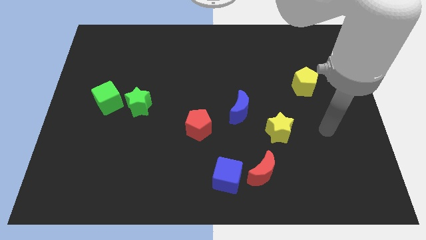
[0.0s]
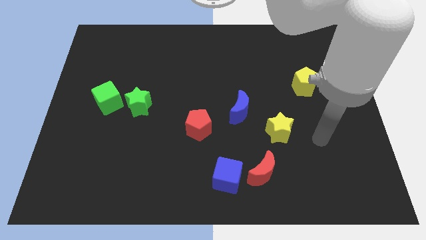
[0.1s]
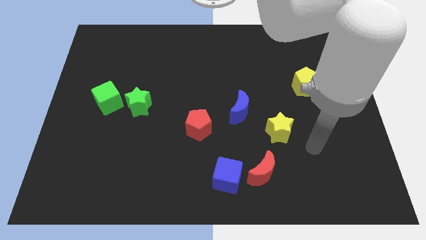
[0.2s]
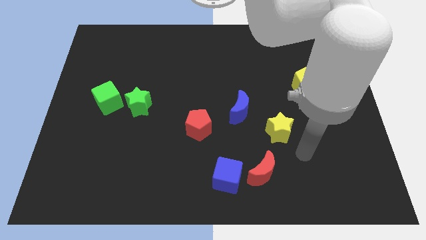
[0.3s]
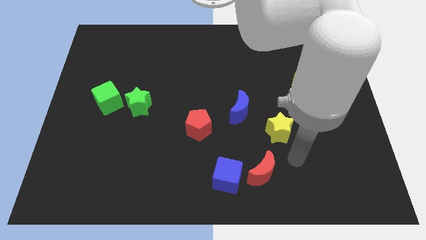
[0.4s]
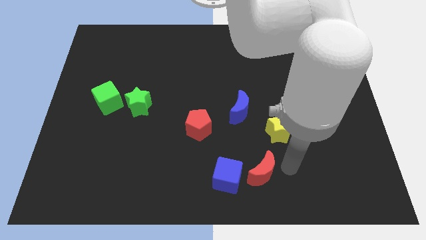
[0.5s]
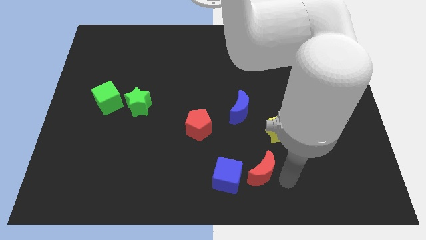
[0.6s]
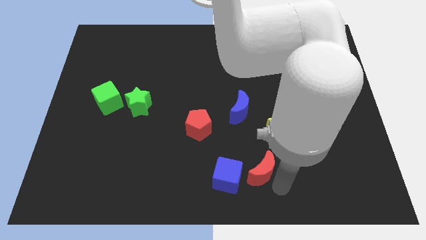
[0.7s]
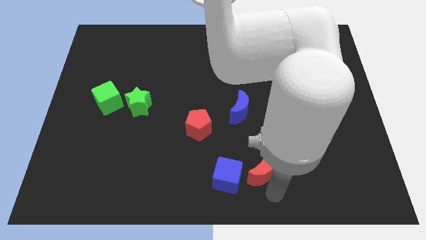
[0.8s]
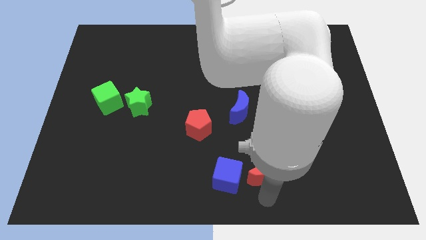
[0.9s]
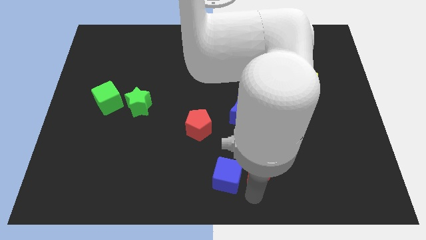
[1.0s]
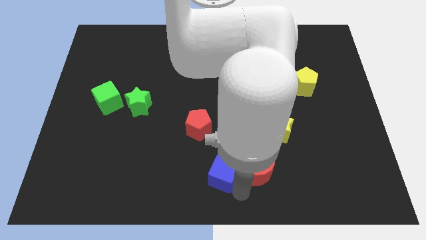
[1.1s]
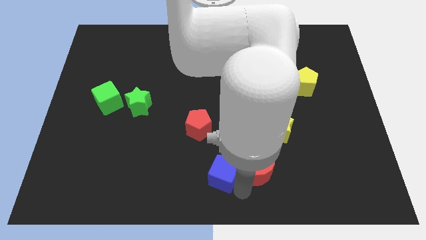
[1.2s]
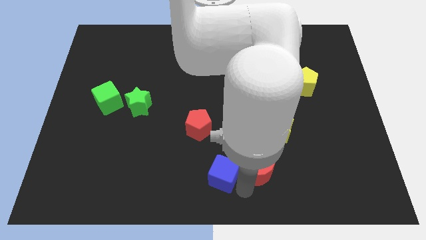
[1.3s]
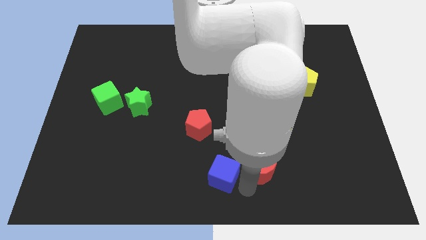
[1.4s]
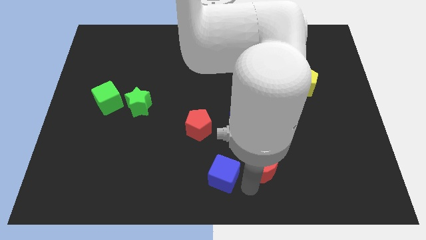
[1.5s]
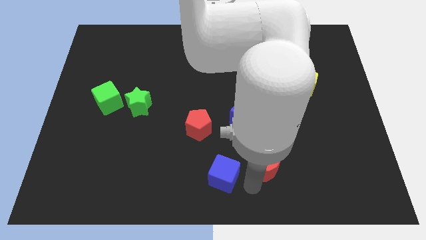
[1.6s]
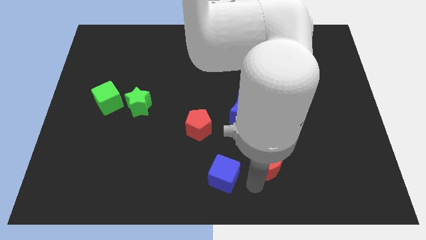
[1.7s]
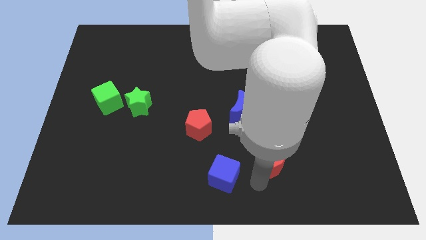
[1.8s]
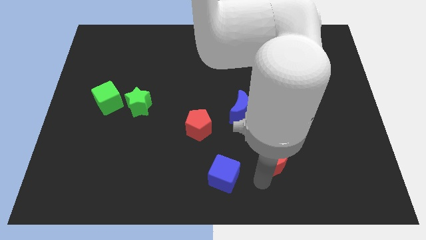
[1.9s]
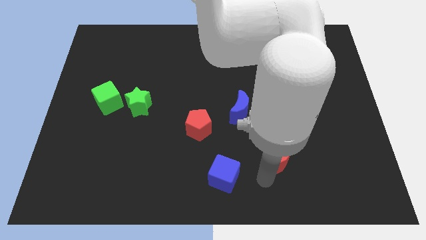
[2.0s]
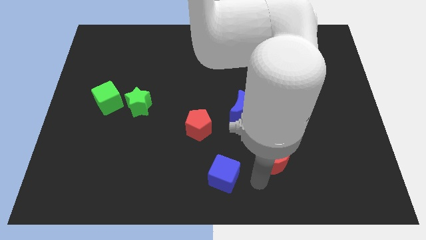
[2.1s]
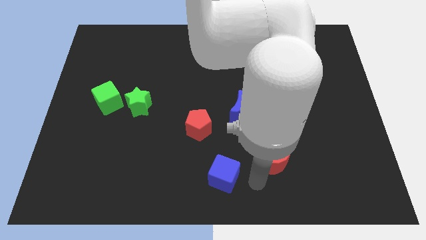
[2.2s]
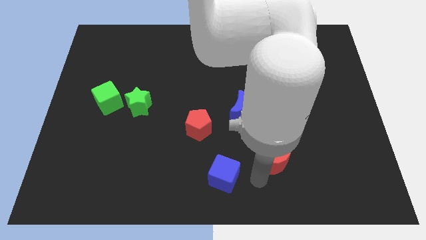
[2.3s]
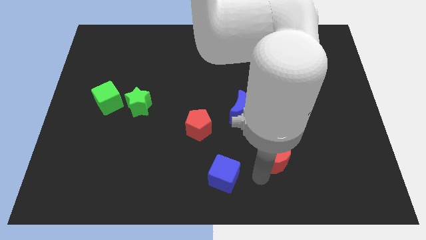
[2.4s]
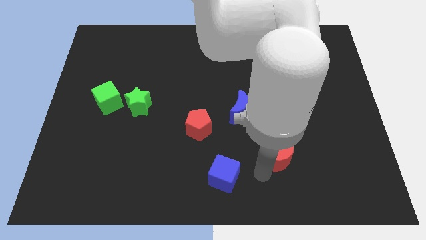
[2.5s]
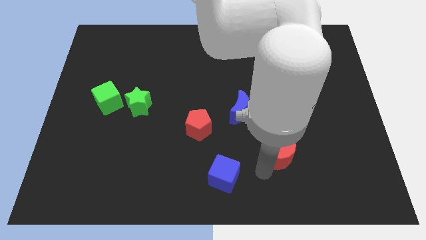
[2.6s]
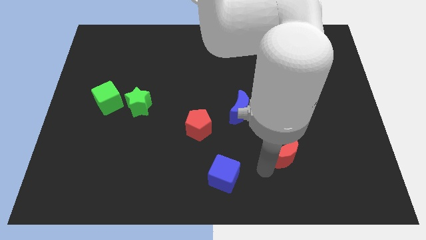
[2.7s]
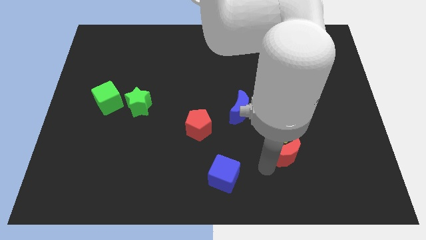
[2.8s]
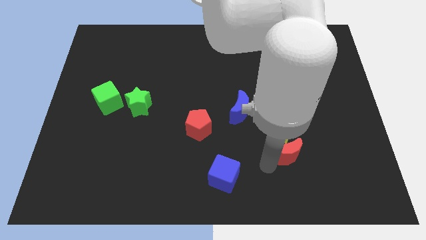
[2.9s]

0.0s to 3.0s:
slightly push the red moon upwards and to the right diagonally

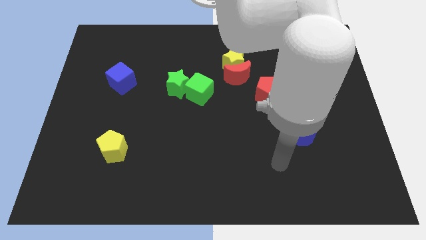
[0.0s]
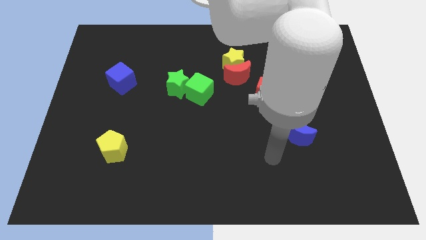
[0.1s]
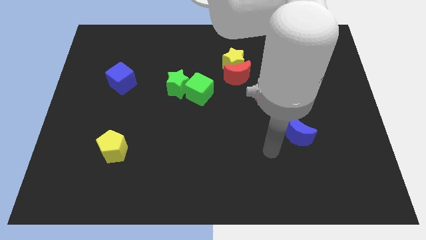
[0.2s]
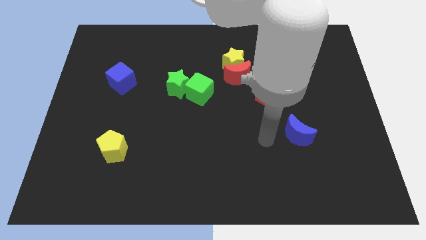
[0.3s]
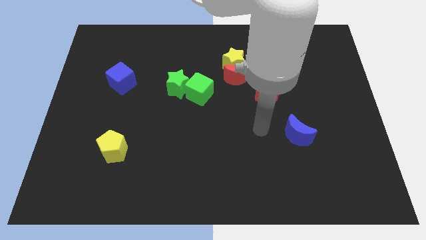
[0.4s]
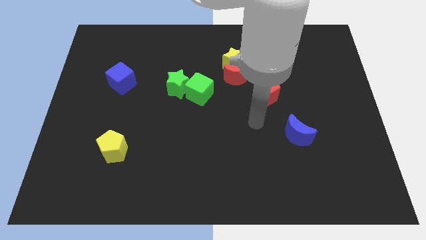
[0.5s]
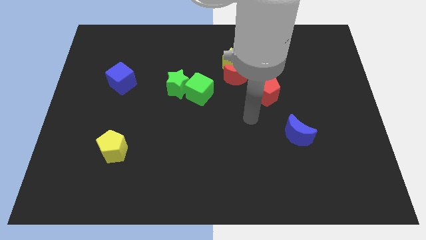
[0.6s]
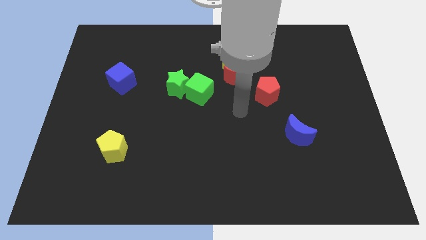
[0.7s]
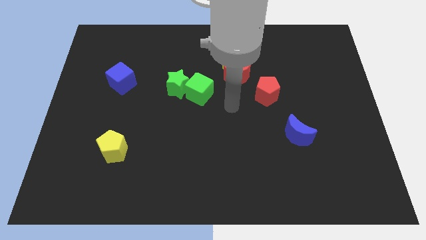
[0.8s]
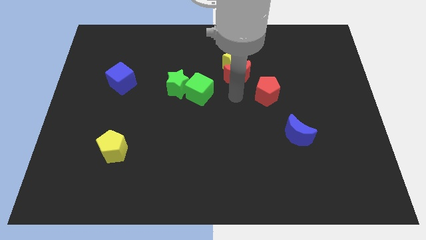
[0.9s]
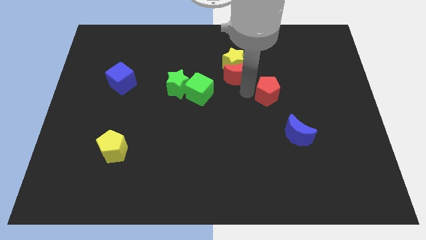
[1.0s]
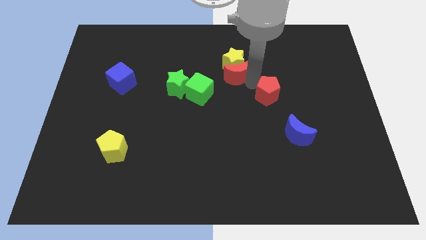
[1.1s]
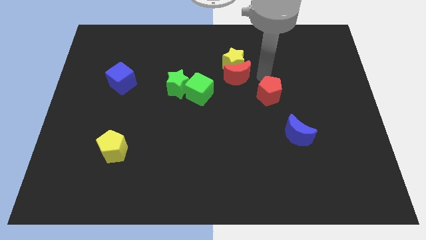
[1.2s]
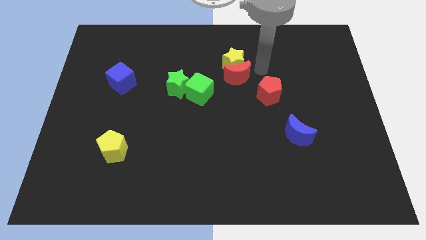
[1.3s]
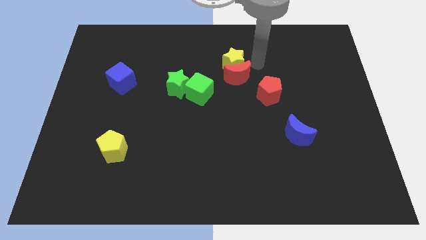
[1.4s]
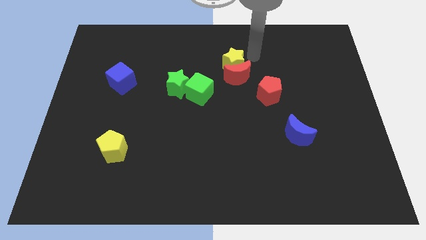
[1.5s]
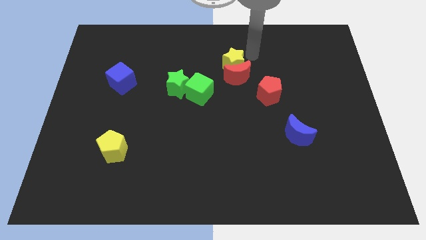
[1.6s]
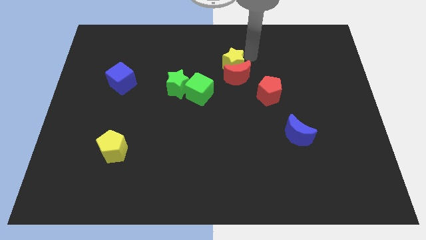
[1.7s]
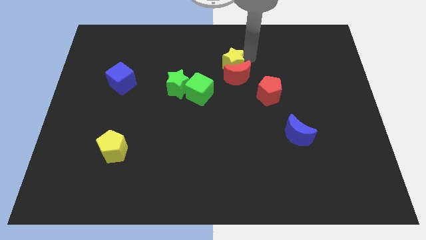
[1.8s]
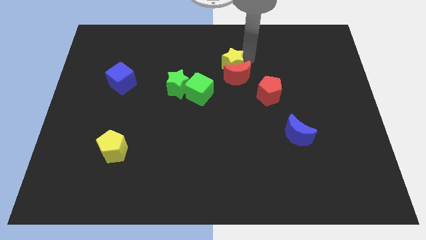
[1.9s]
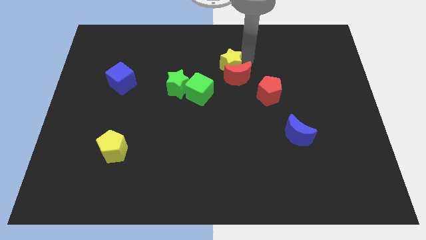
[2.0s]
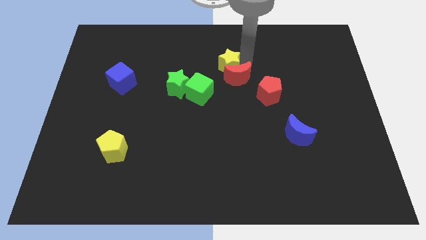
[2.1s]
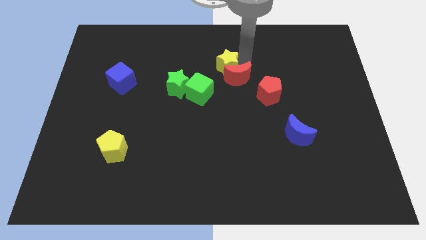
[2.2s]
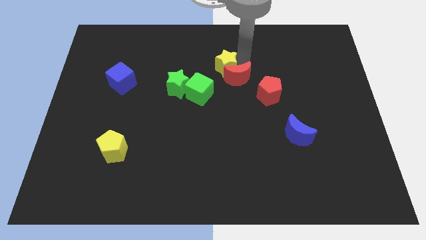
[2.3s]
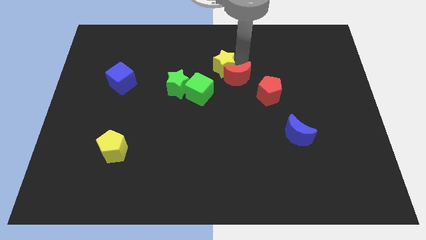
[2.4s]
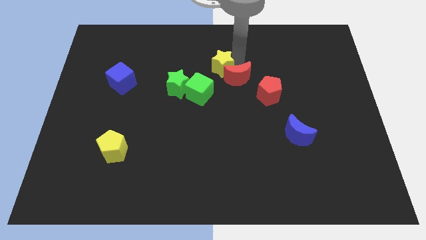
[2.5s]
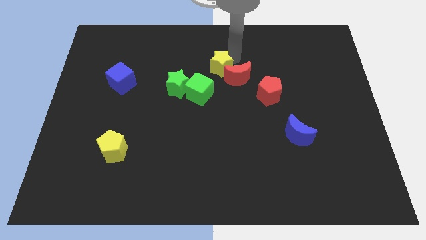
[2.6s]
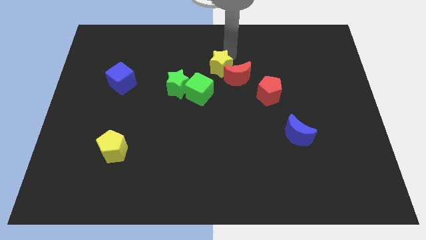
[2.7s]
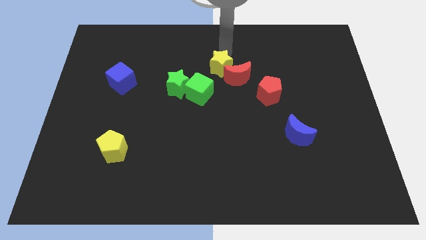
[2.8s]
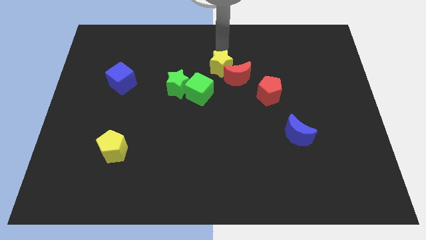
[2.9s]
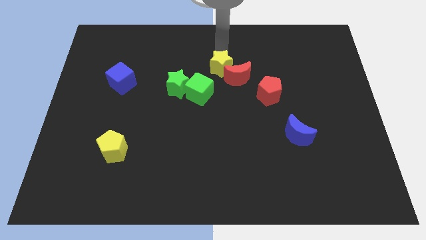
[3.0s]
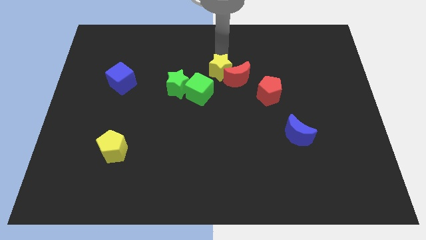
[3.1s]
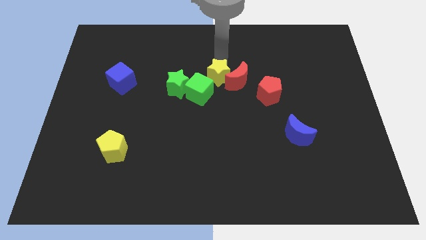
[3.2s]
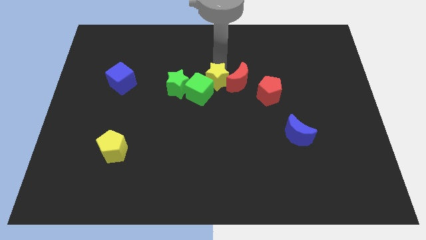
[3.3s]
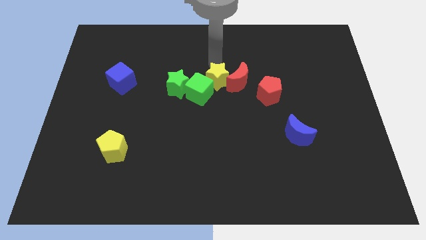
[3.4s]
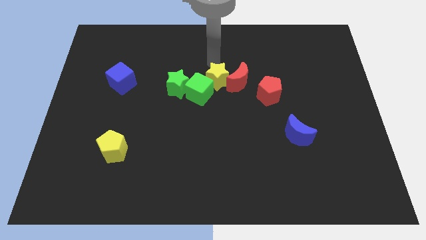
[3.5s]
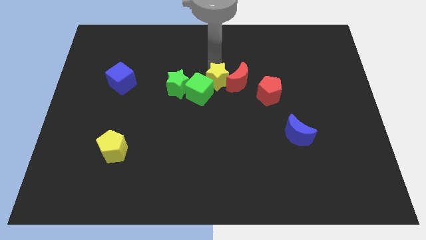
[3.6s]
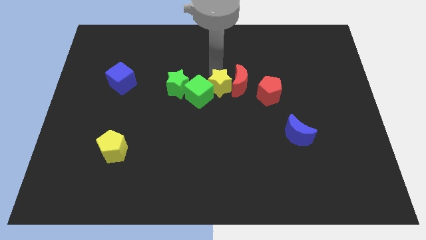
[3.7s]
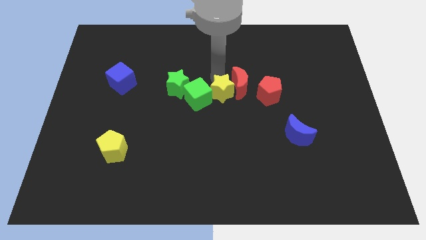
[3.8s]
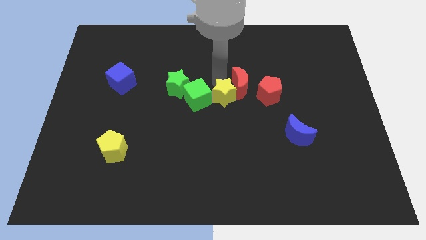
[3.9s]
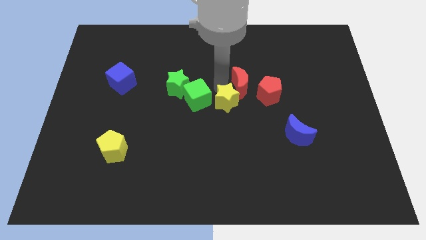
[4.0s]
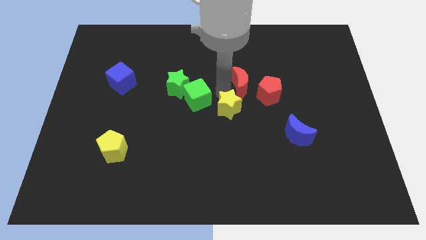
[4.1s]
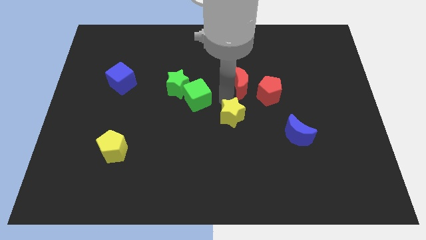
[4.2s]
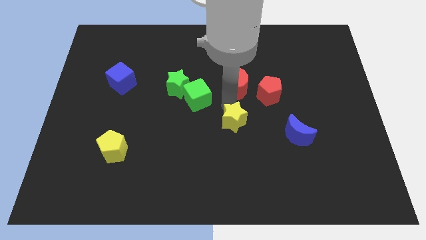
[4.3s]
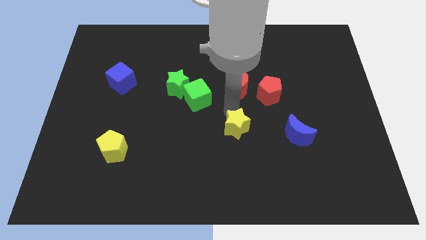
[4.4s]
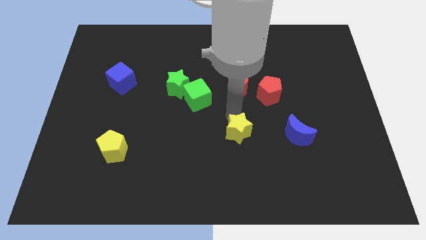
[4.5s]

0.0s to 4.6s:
move the yellow star downwards

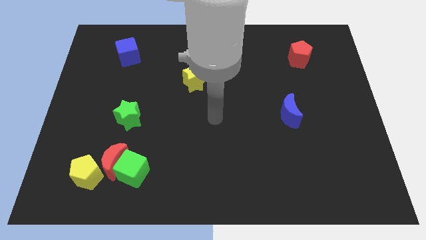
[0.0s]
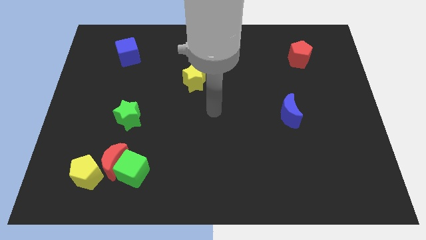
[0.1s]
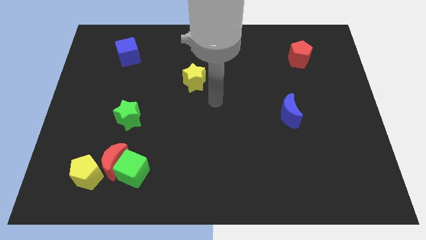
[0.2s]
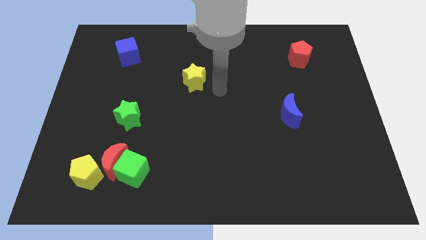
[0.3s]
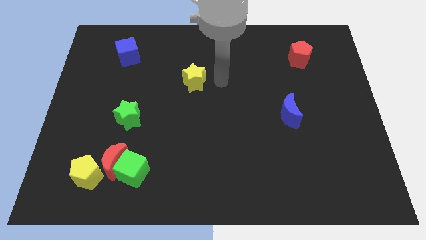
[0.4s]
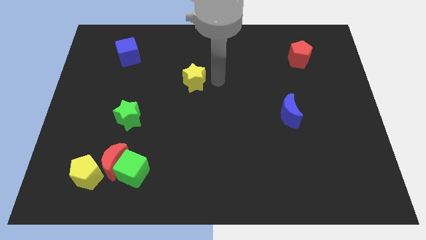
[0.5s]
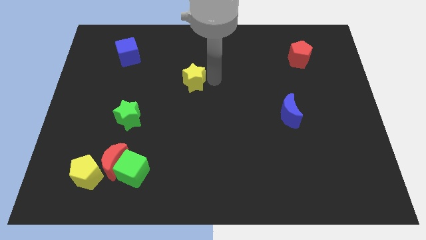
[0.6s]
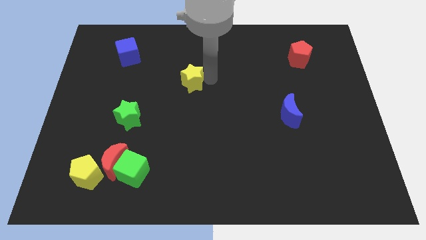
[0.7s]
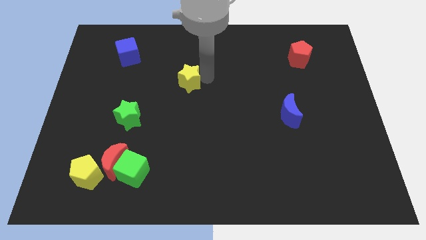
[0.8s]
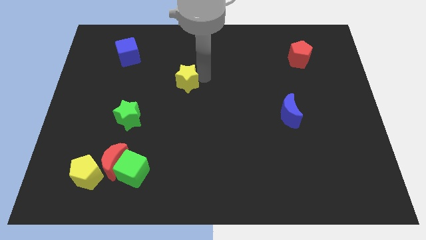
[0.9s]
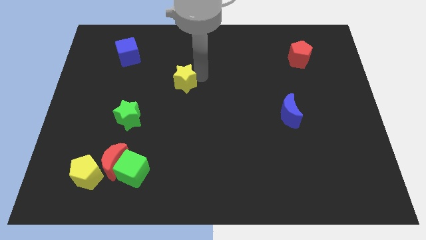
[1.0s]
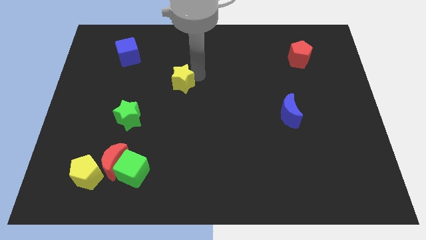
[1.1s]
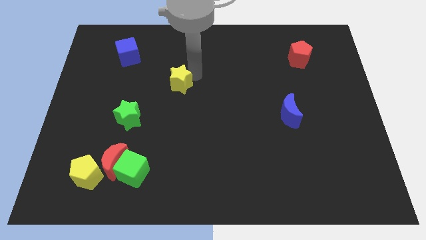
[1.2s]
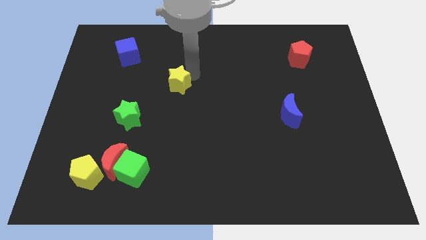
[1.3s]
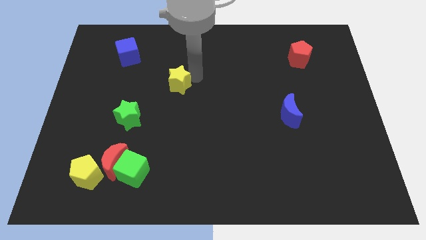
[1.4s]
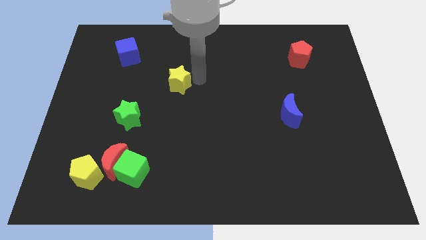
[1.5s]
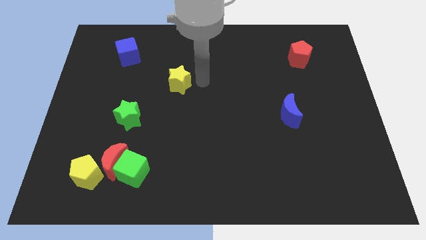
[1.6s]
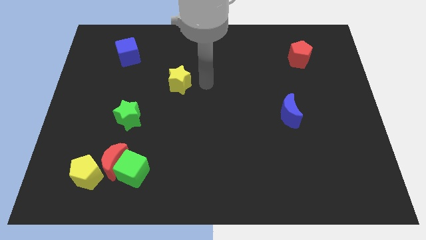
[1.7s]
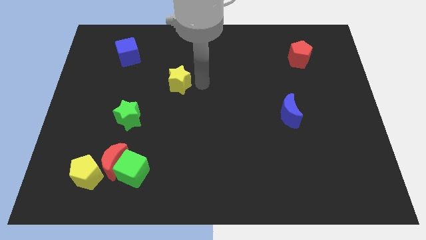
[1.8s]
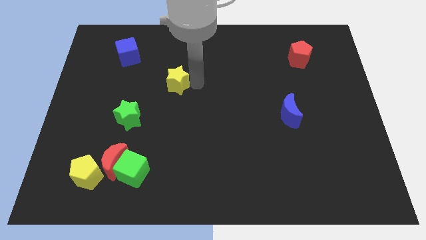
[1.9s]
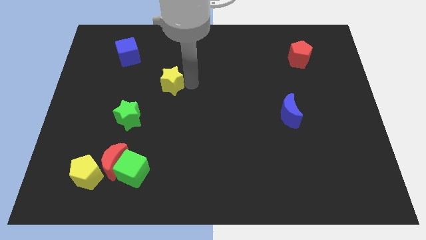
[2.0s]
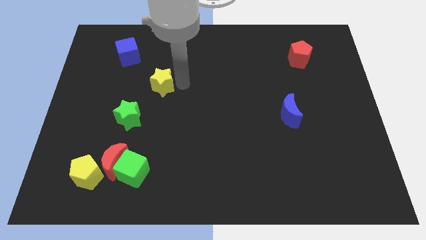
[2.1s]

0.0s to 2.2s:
push the yellow star a little bit left
